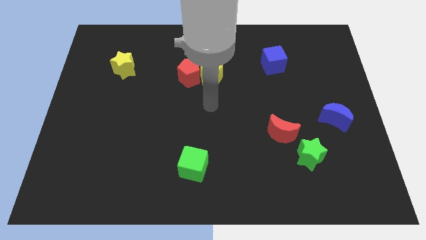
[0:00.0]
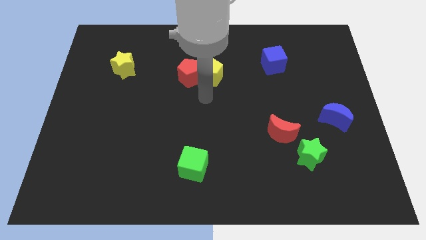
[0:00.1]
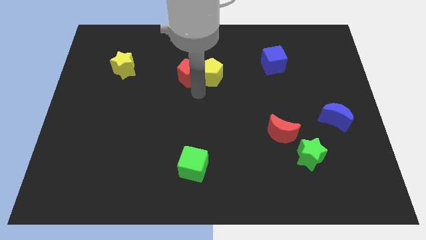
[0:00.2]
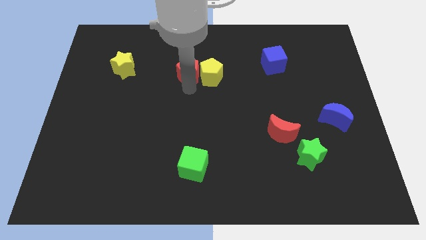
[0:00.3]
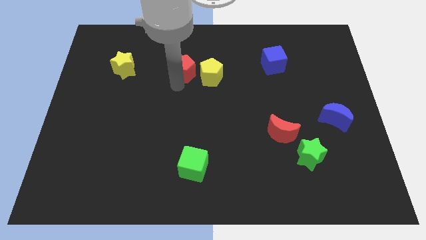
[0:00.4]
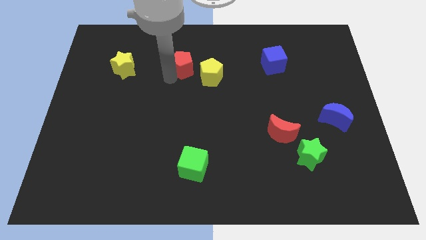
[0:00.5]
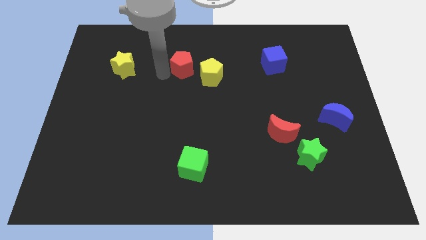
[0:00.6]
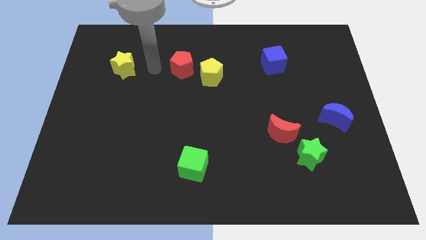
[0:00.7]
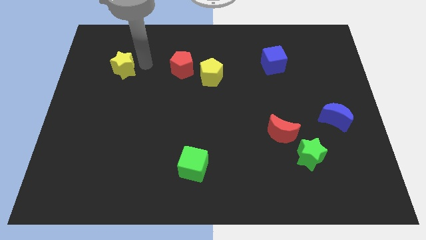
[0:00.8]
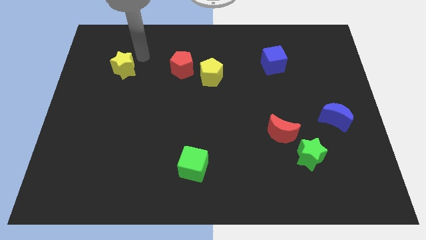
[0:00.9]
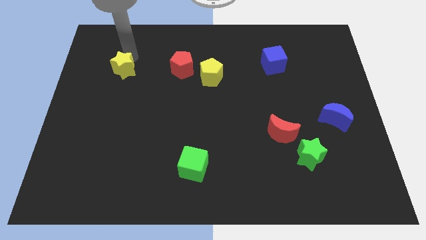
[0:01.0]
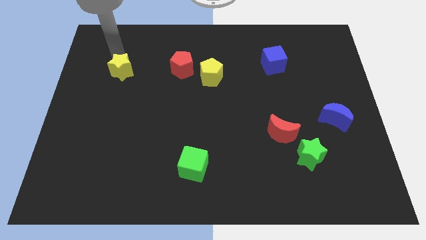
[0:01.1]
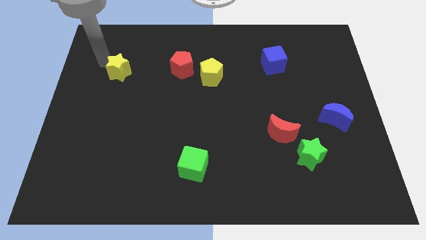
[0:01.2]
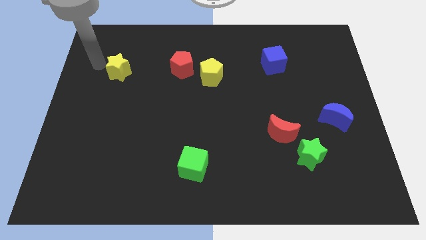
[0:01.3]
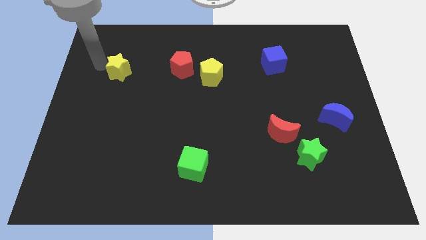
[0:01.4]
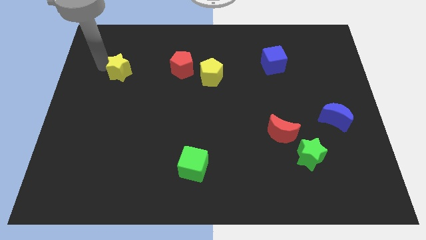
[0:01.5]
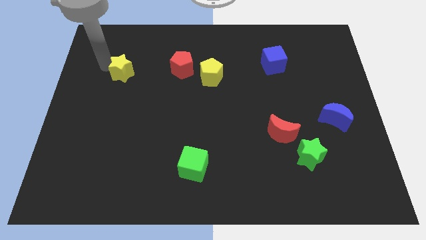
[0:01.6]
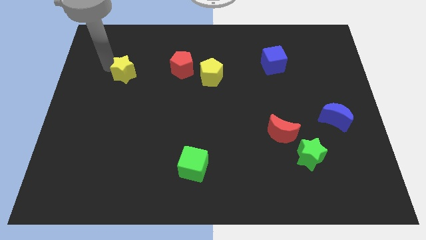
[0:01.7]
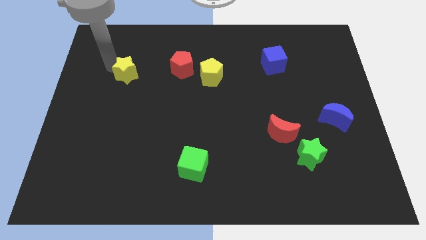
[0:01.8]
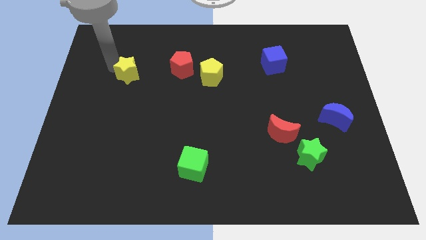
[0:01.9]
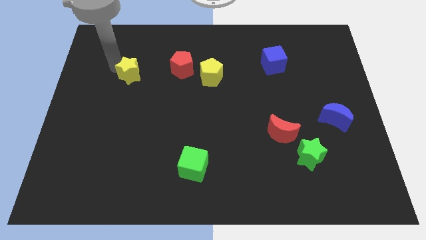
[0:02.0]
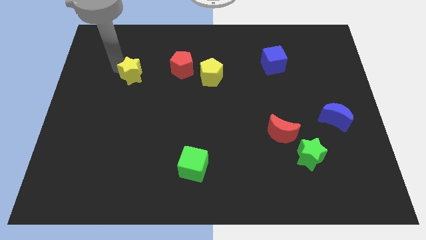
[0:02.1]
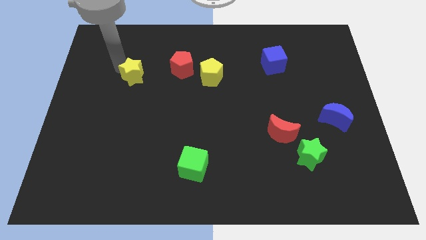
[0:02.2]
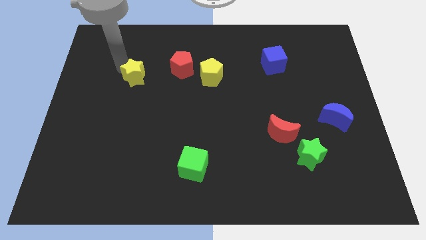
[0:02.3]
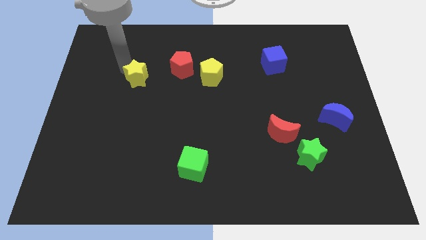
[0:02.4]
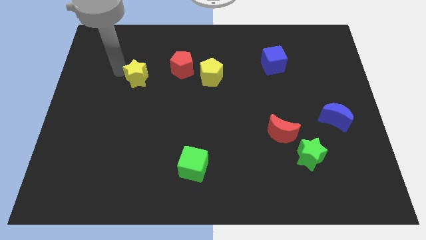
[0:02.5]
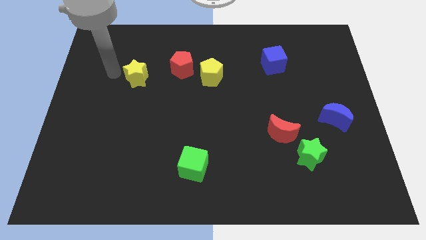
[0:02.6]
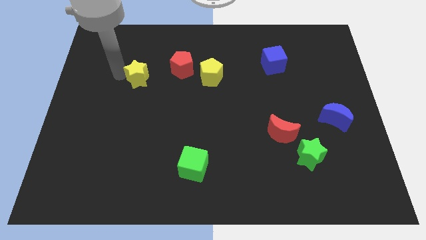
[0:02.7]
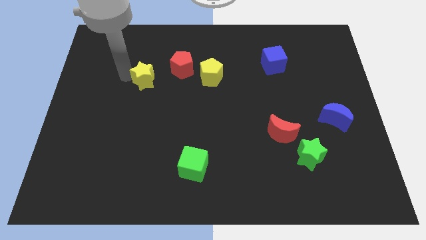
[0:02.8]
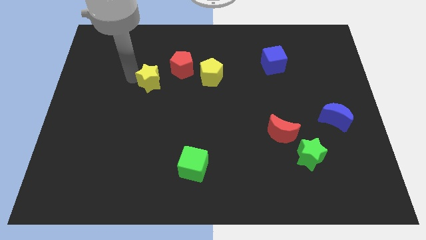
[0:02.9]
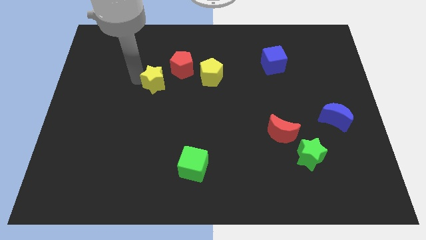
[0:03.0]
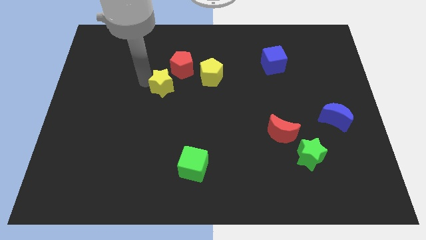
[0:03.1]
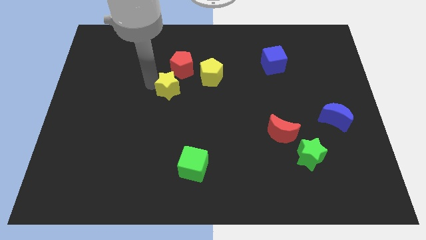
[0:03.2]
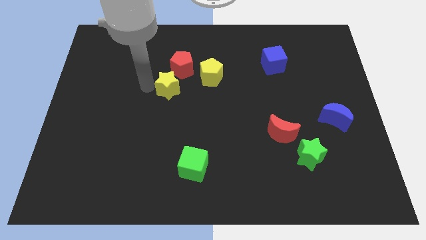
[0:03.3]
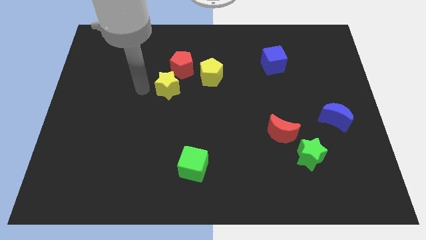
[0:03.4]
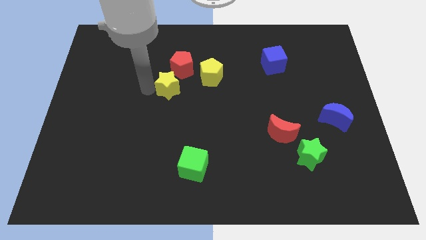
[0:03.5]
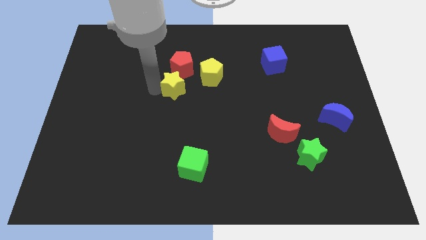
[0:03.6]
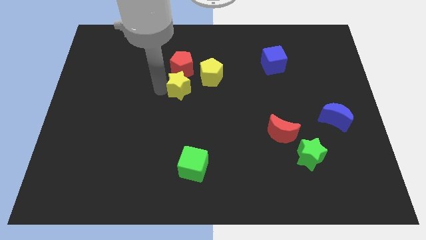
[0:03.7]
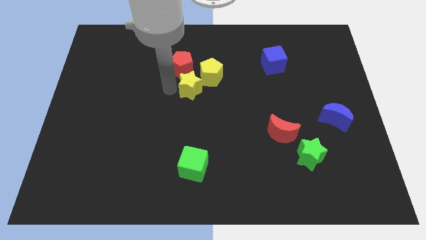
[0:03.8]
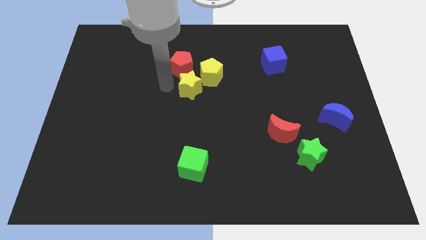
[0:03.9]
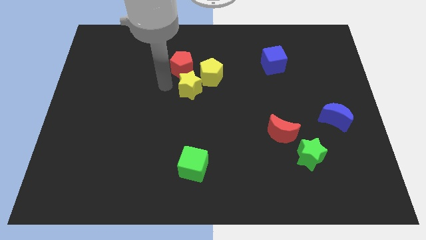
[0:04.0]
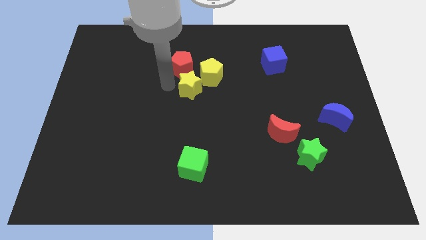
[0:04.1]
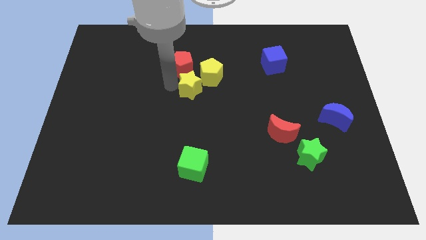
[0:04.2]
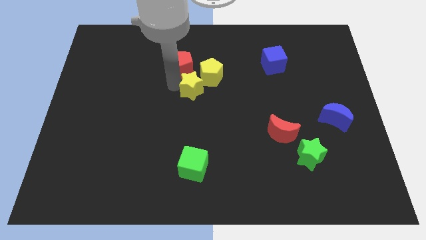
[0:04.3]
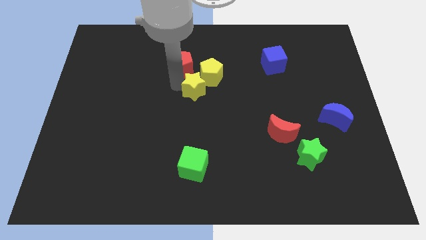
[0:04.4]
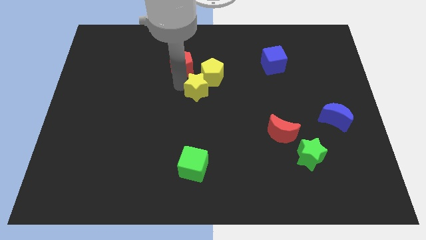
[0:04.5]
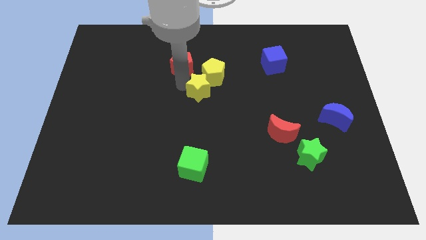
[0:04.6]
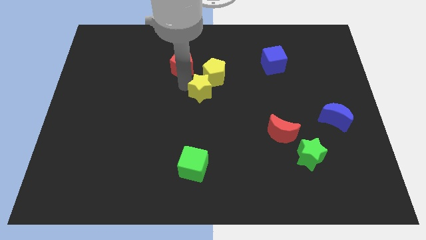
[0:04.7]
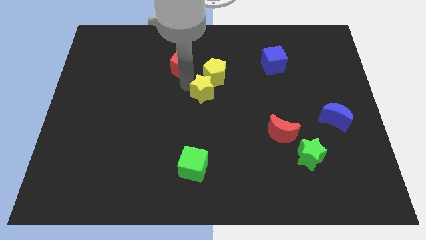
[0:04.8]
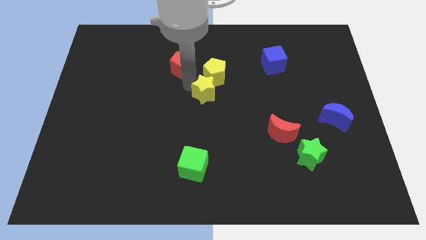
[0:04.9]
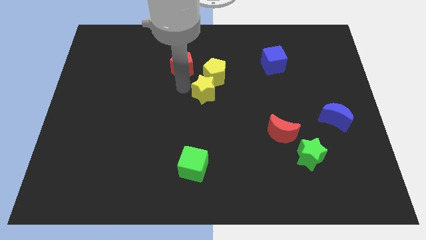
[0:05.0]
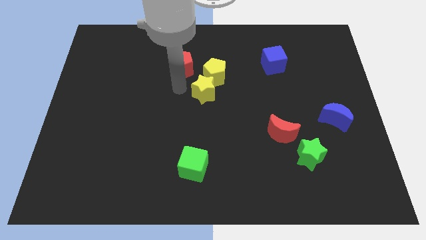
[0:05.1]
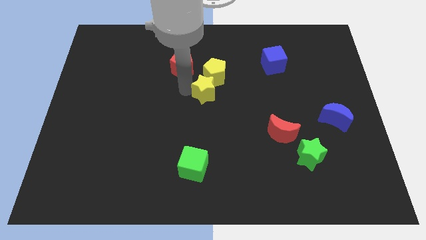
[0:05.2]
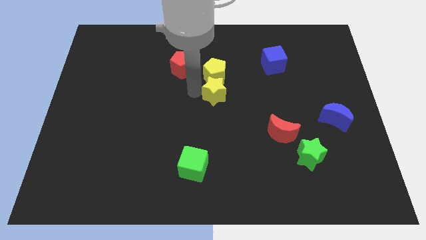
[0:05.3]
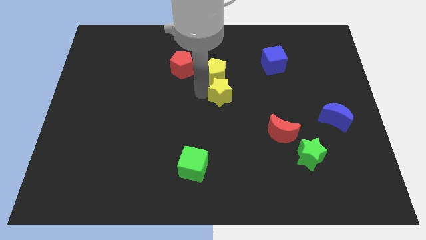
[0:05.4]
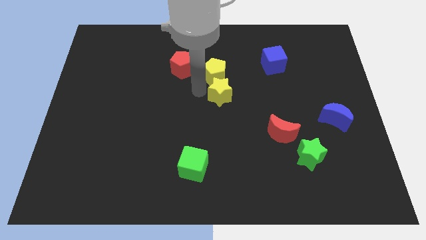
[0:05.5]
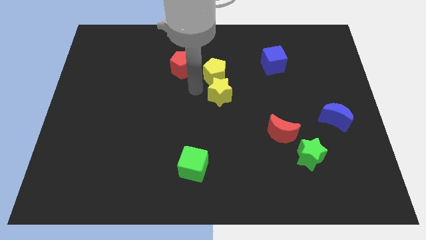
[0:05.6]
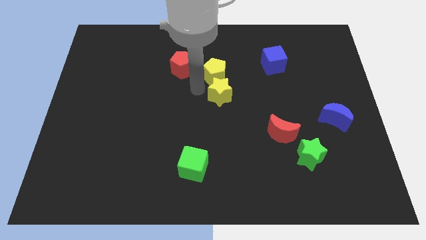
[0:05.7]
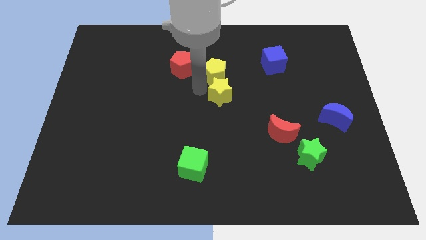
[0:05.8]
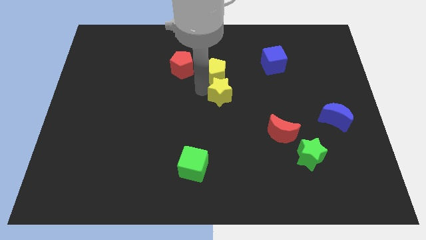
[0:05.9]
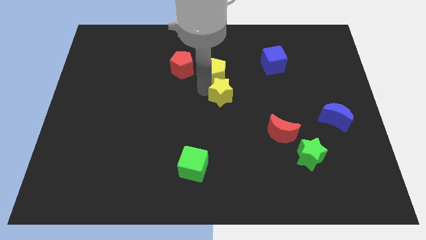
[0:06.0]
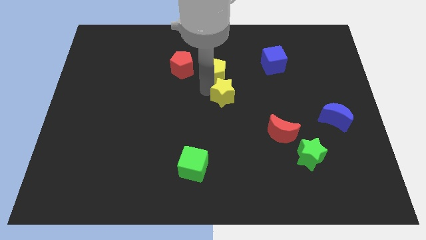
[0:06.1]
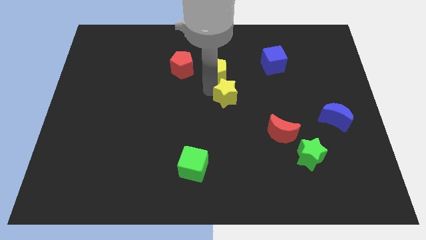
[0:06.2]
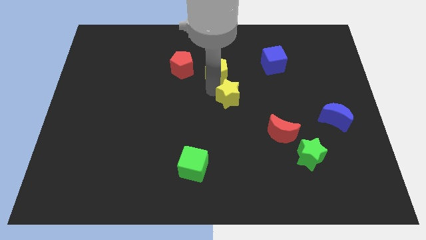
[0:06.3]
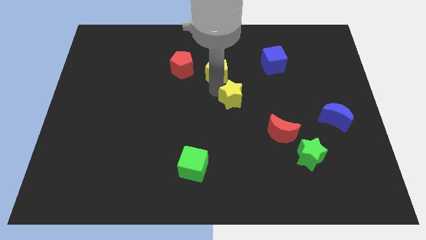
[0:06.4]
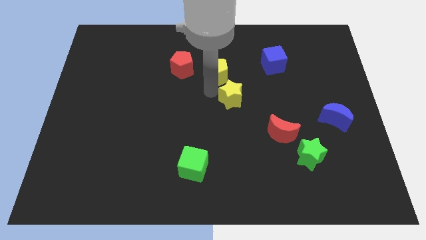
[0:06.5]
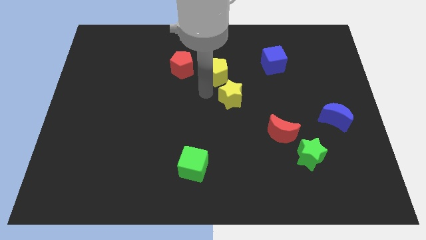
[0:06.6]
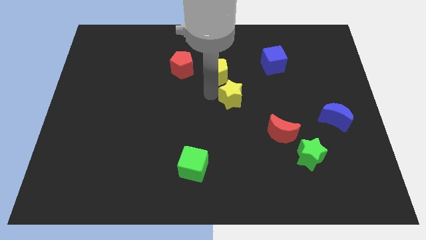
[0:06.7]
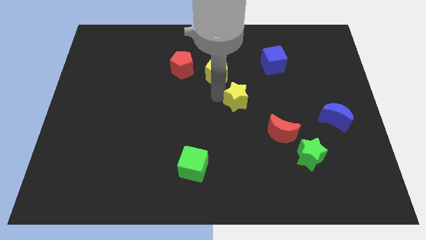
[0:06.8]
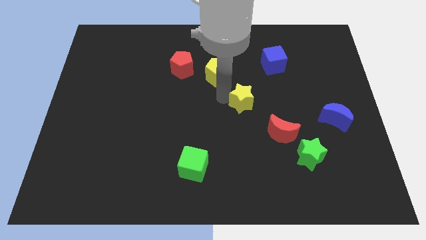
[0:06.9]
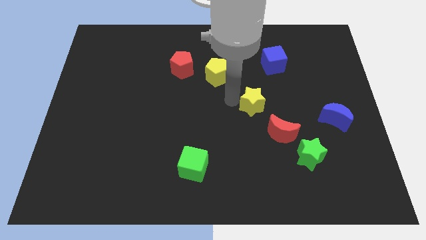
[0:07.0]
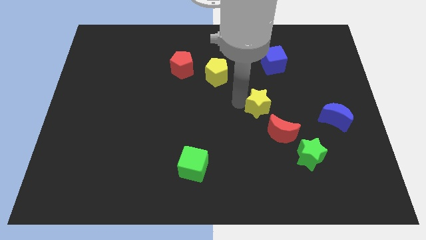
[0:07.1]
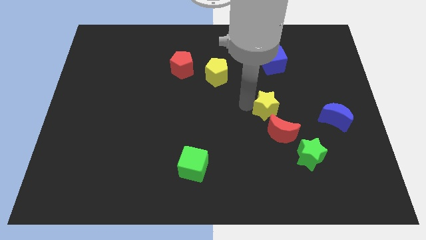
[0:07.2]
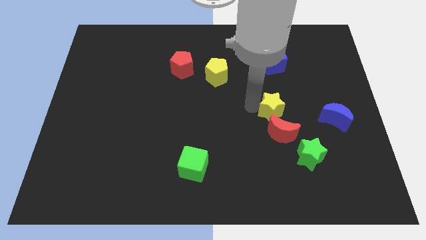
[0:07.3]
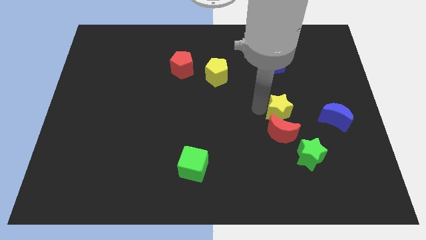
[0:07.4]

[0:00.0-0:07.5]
slide the yellow star to the top right of the red moon

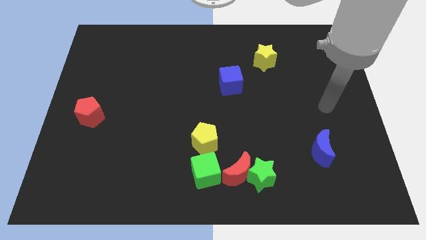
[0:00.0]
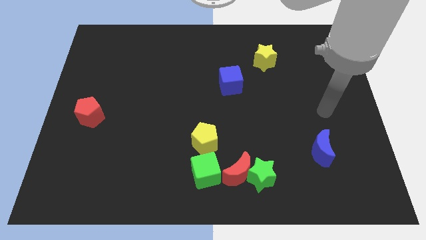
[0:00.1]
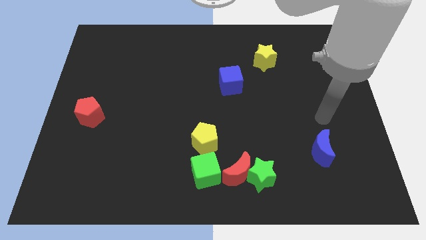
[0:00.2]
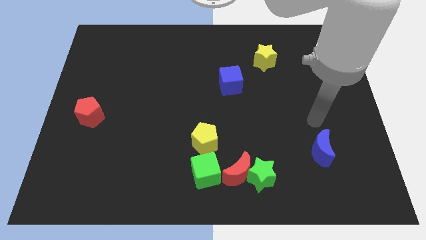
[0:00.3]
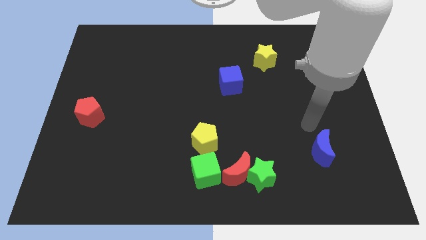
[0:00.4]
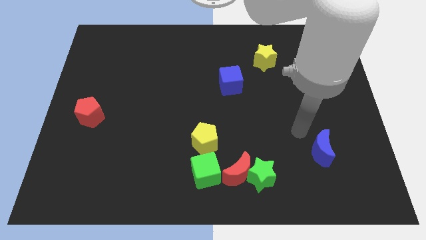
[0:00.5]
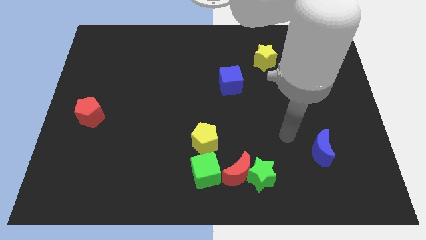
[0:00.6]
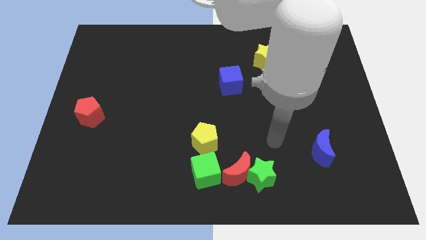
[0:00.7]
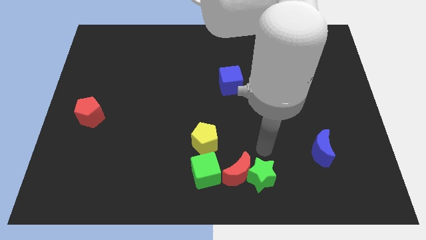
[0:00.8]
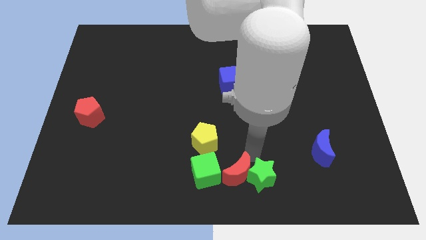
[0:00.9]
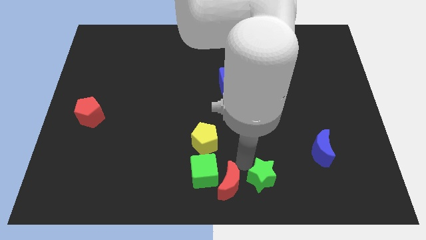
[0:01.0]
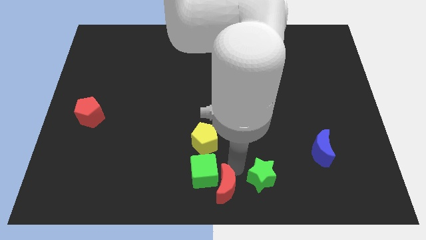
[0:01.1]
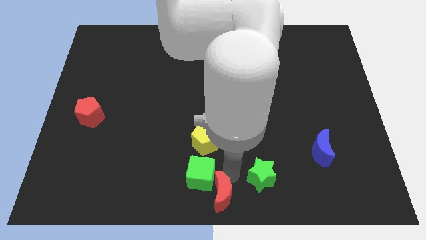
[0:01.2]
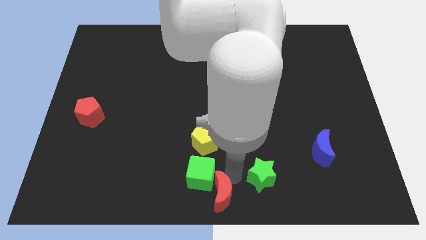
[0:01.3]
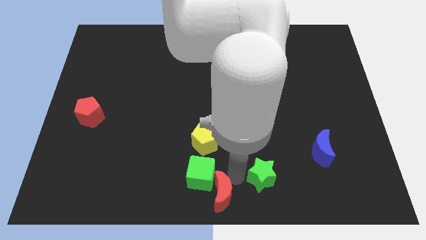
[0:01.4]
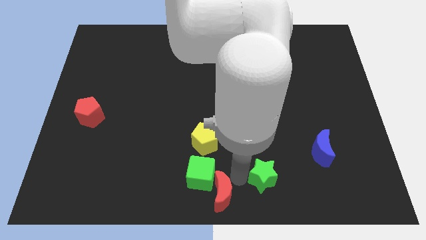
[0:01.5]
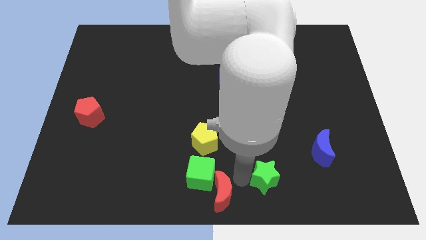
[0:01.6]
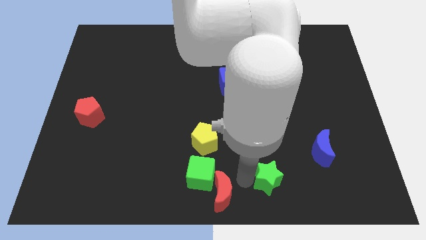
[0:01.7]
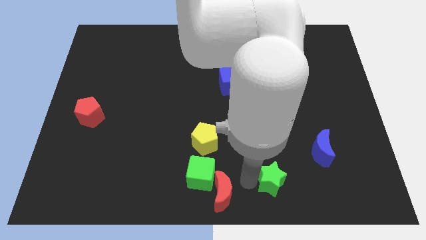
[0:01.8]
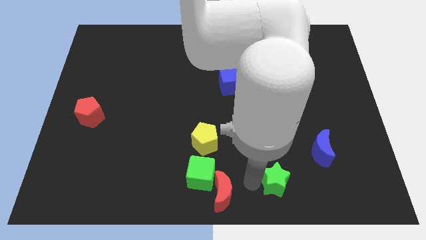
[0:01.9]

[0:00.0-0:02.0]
push the green star to the bottom left side of the blue moon
